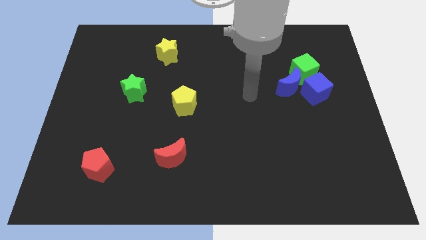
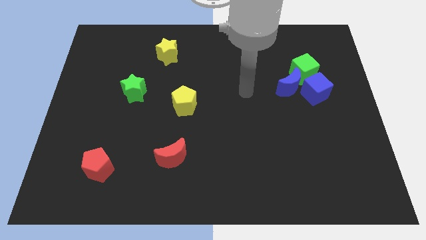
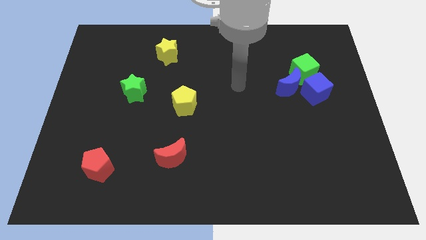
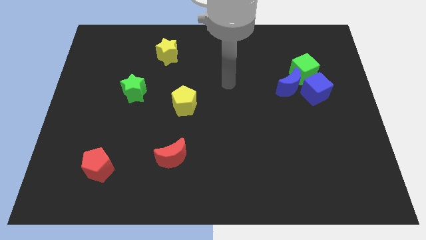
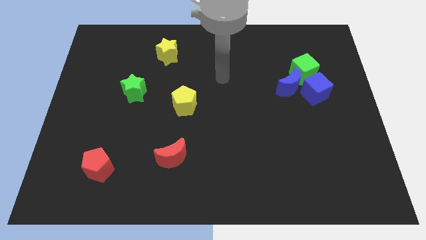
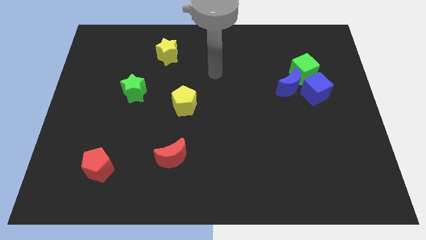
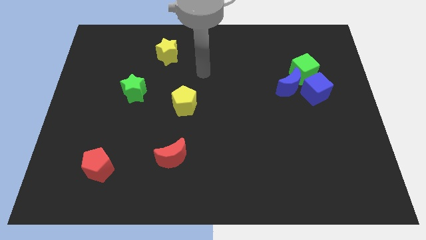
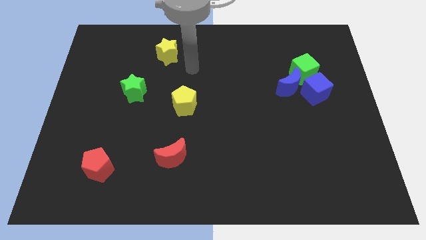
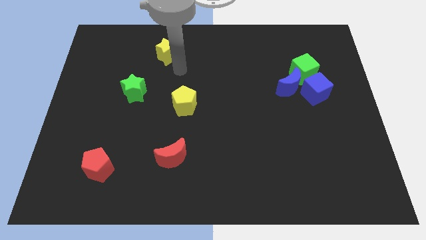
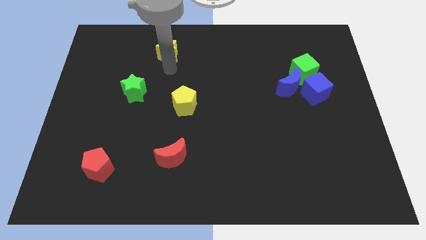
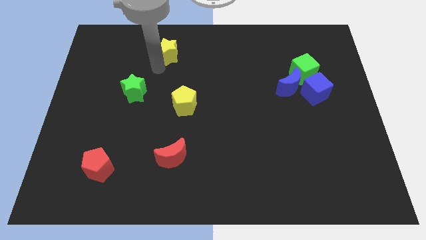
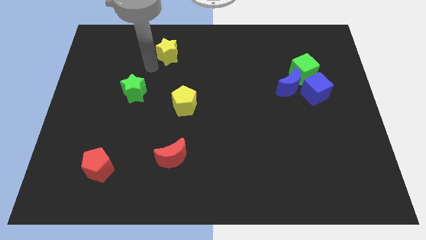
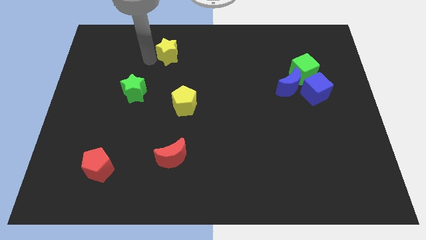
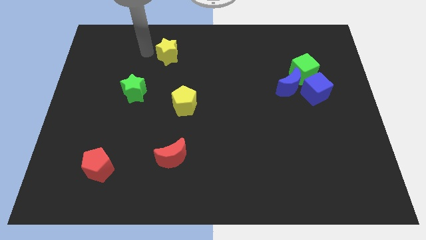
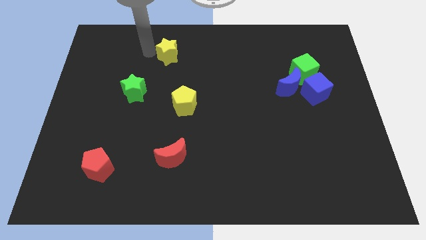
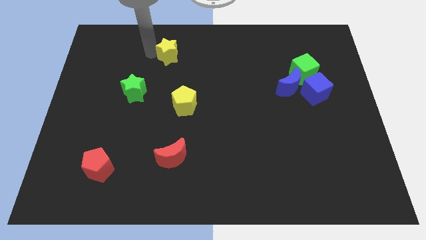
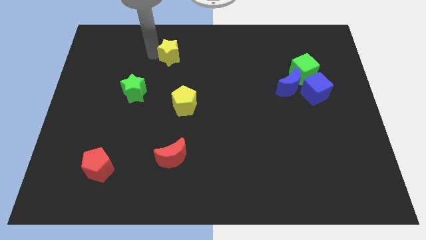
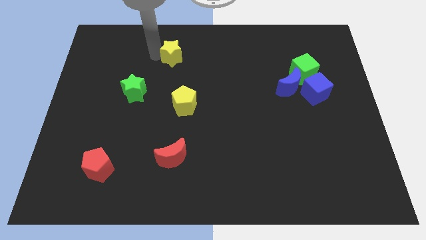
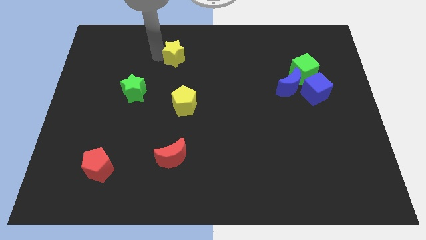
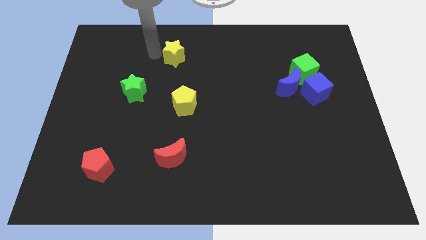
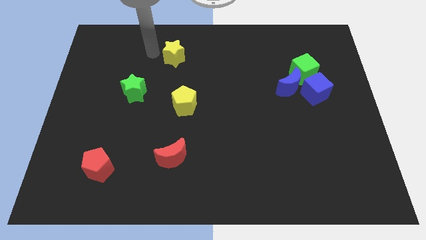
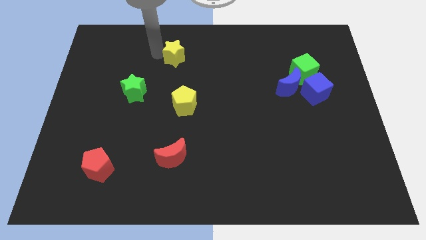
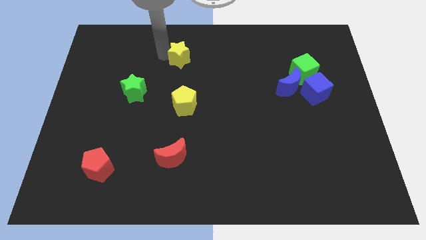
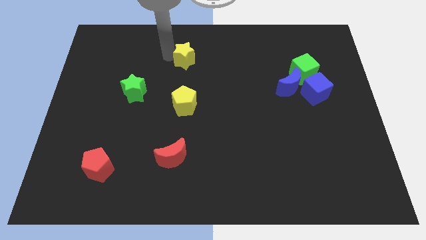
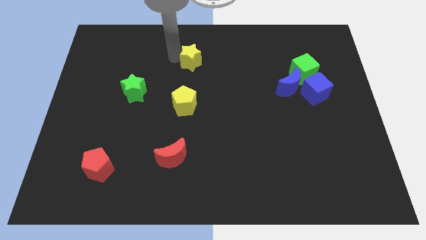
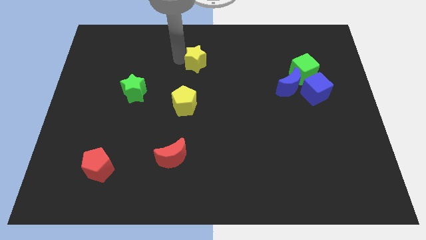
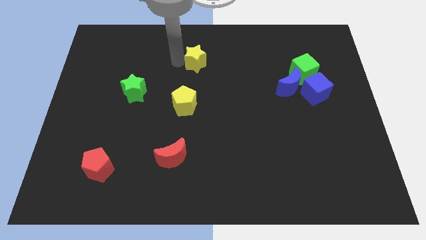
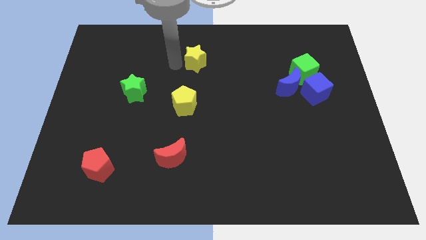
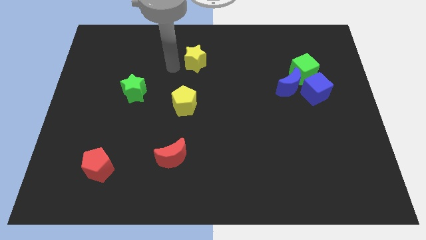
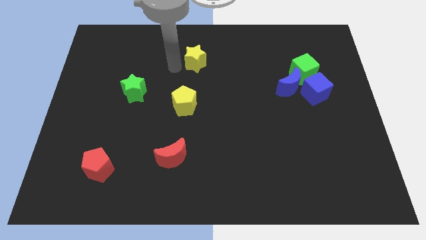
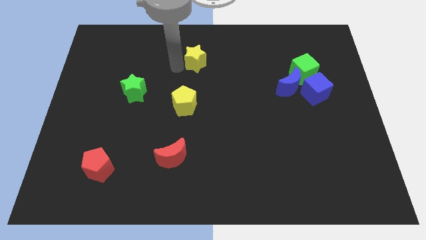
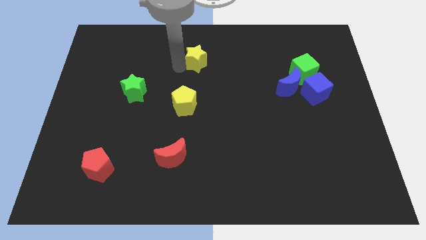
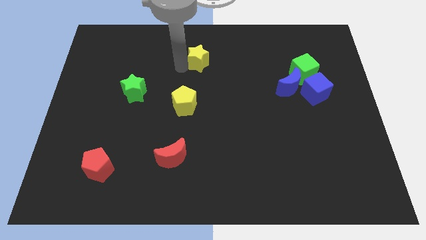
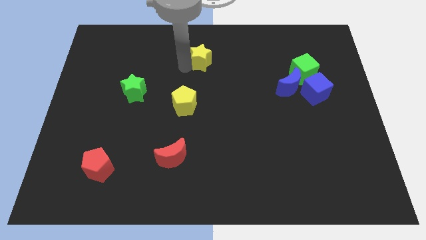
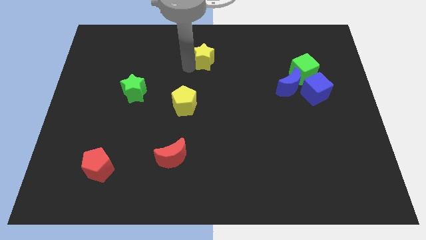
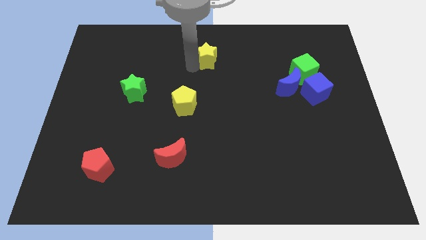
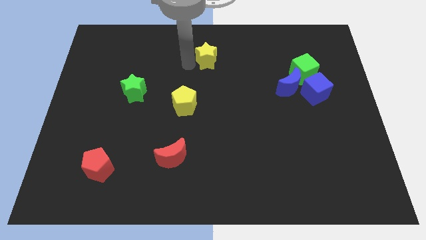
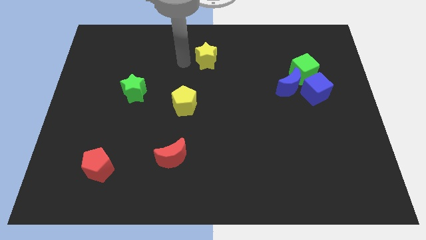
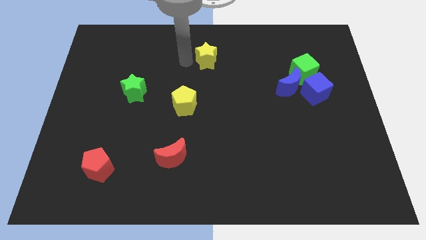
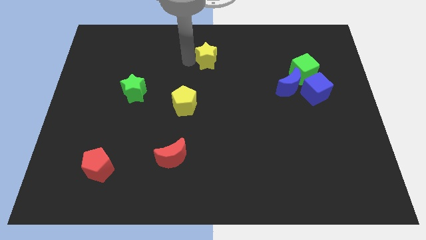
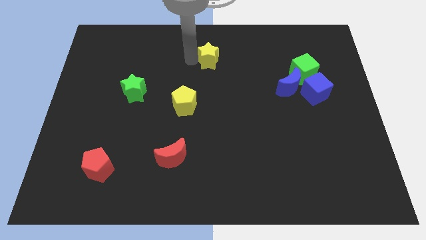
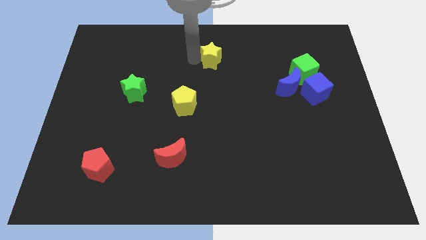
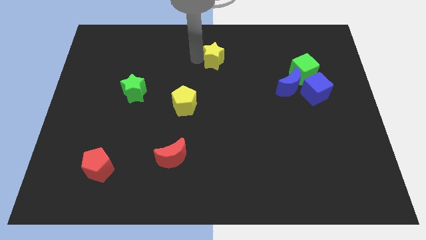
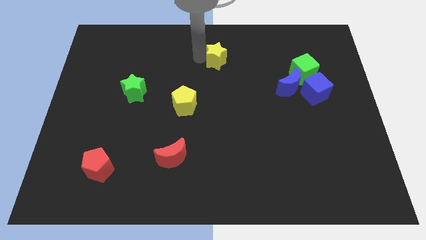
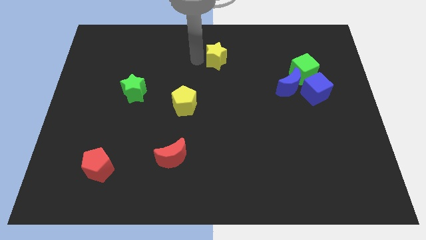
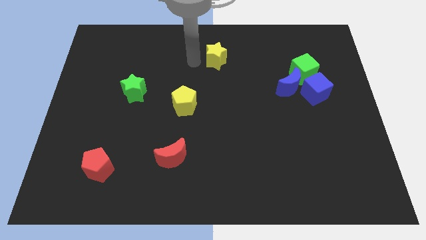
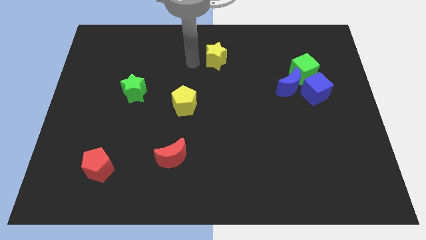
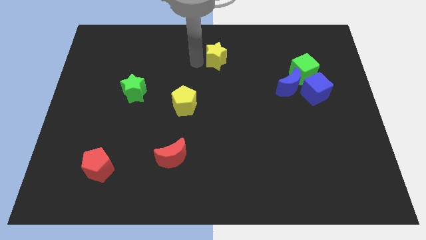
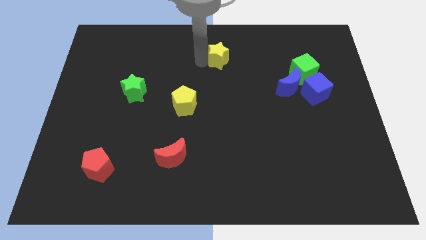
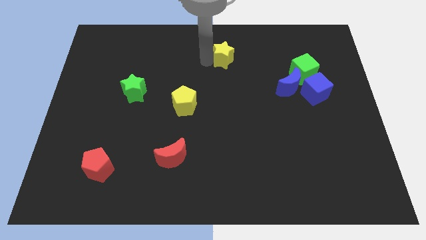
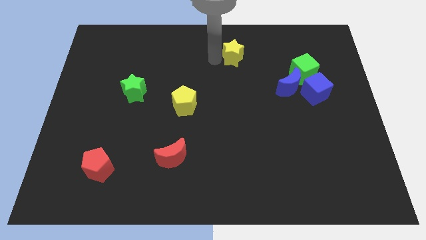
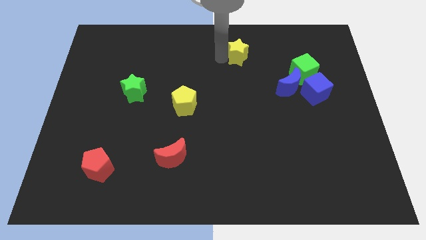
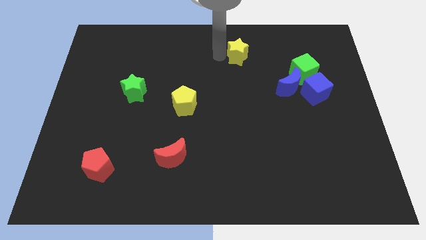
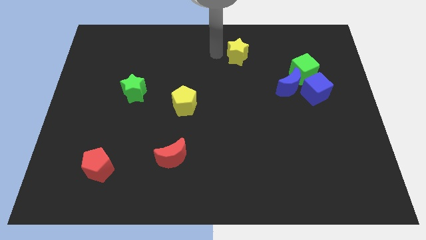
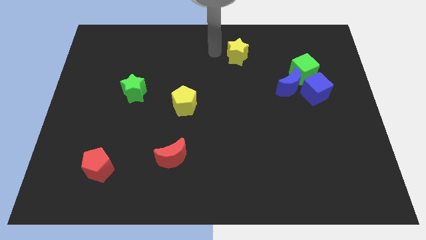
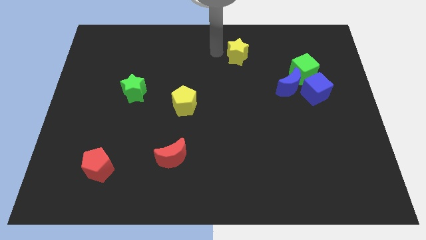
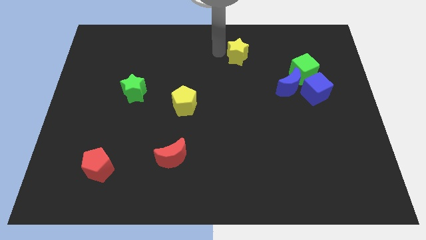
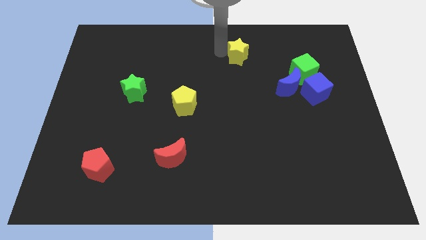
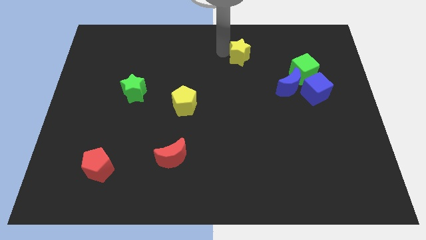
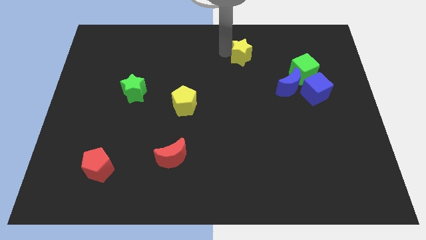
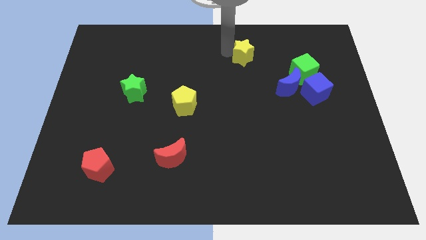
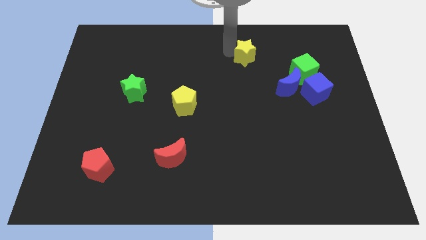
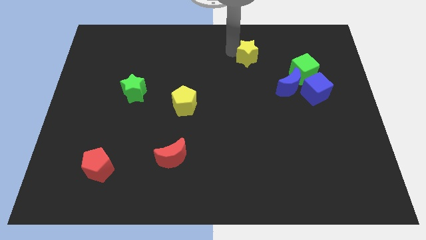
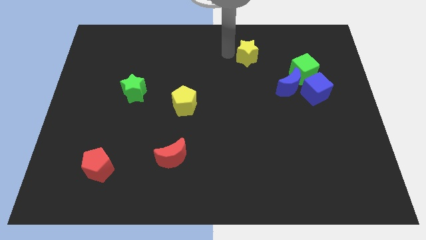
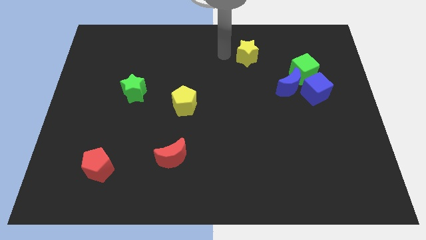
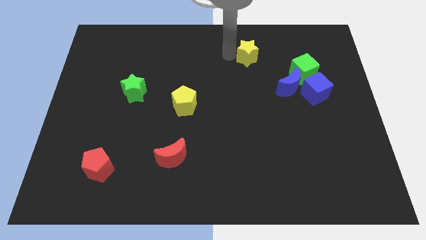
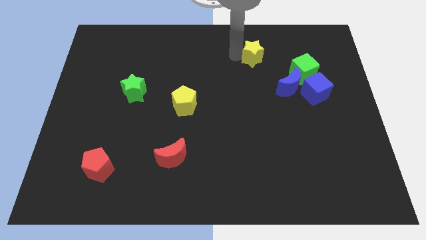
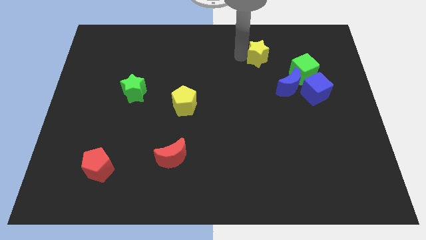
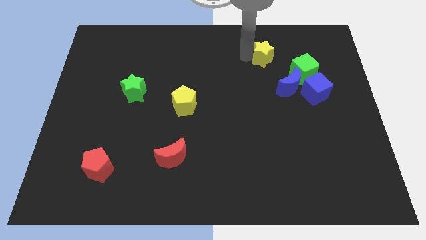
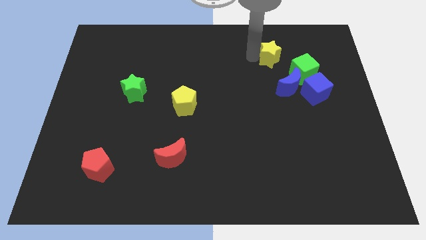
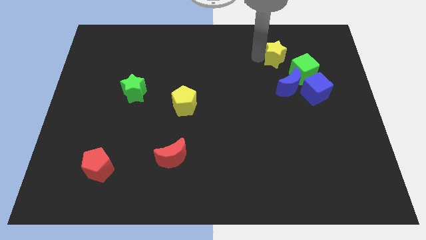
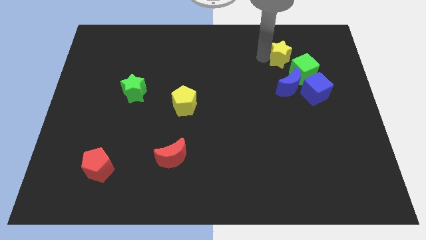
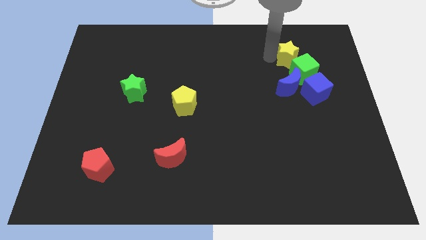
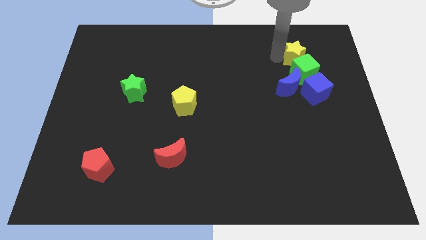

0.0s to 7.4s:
push the yellow star to the top of the blue cube

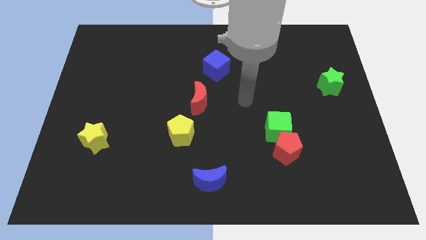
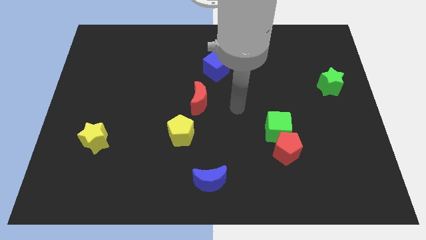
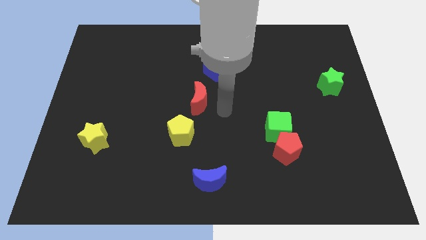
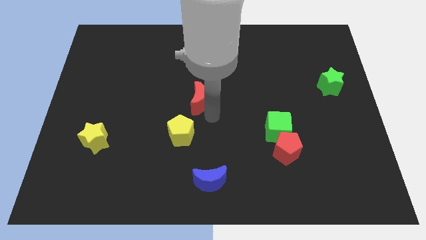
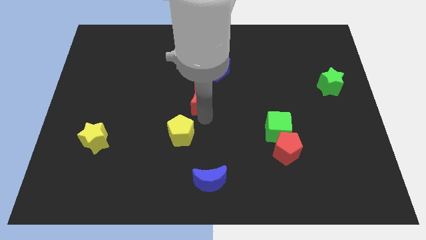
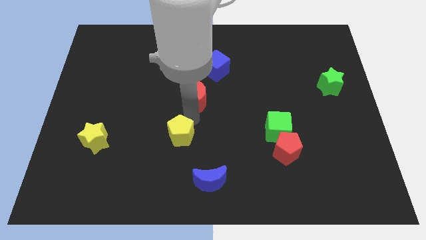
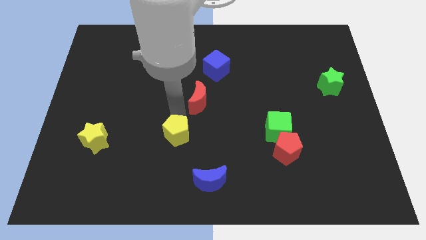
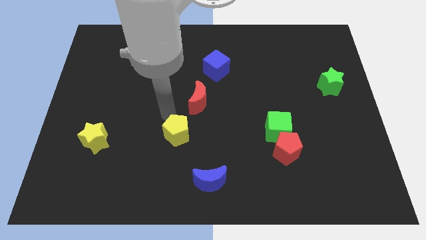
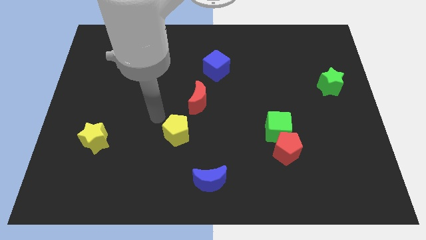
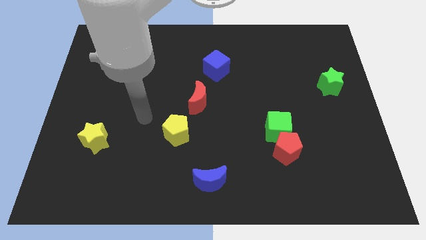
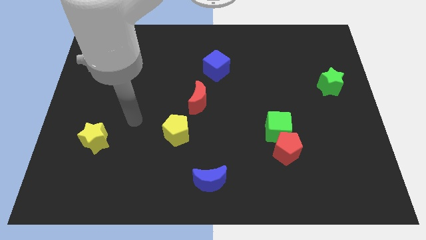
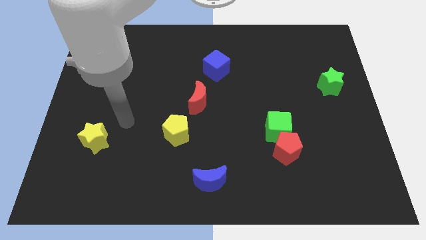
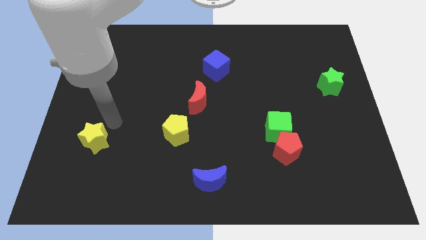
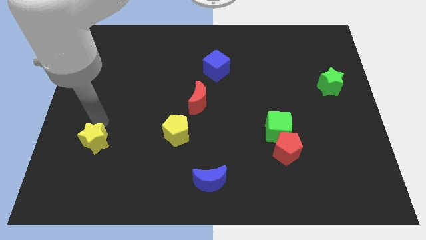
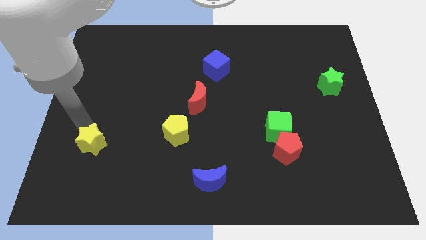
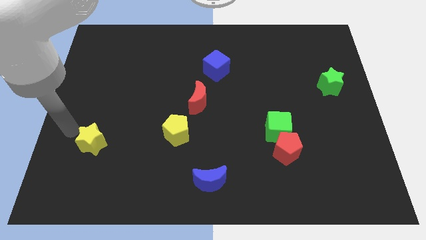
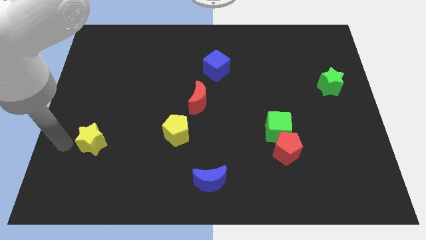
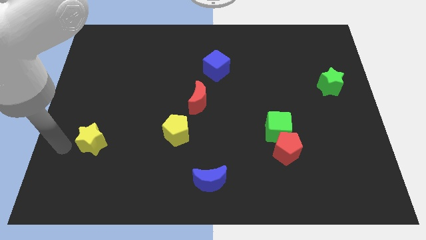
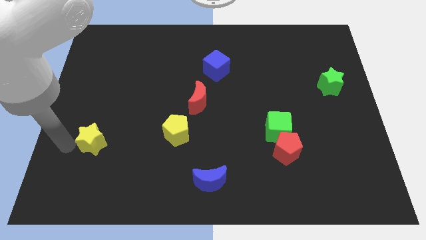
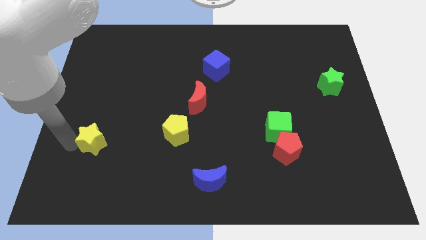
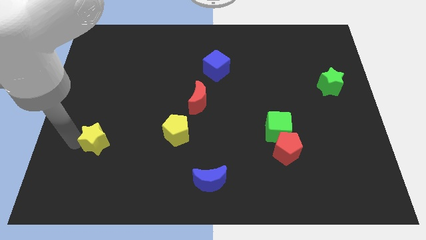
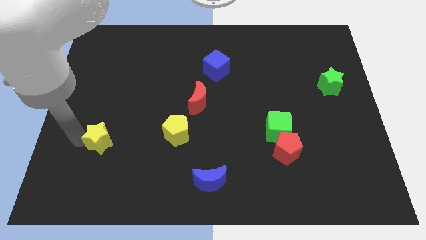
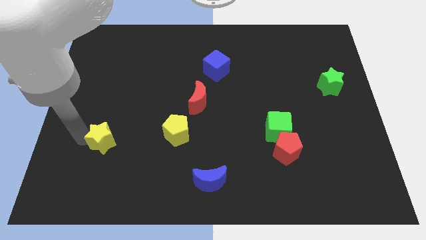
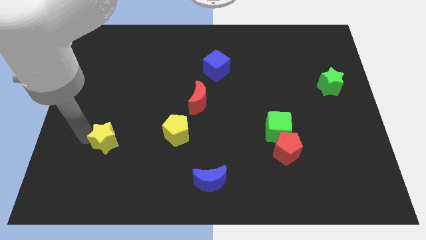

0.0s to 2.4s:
put the yellow star to the left of the yellow pentagon
